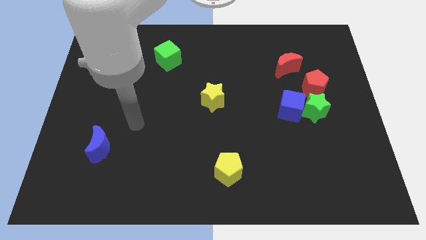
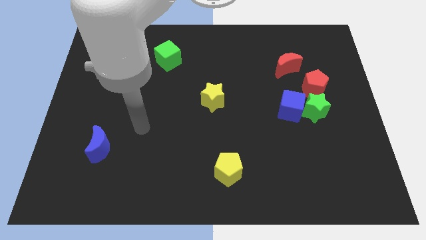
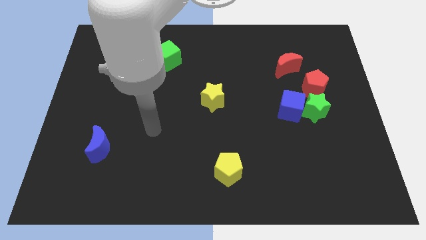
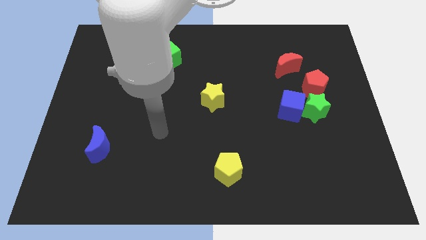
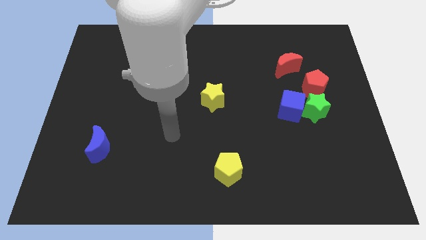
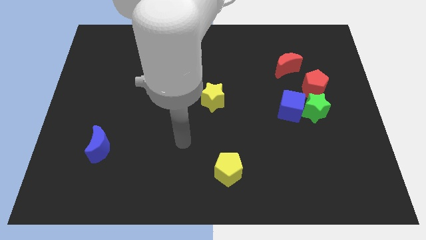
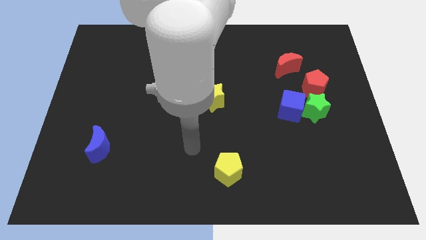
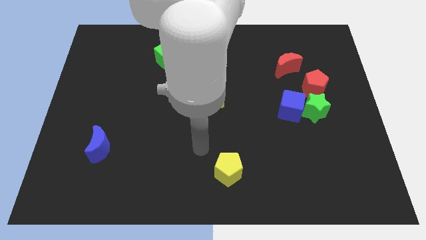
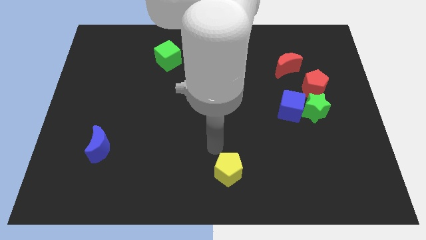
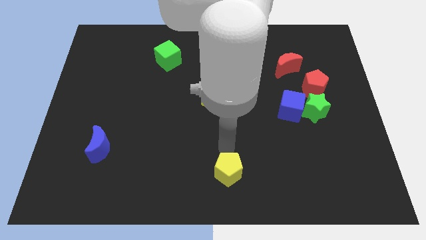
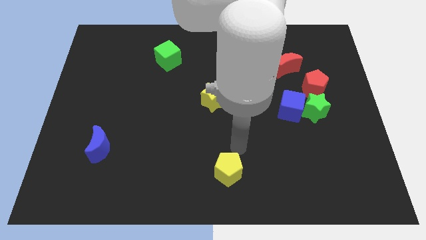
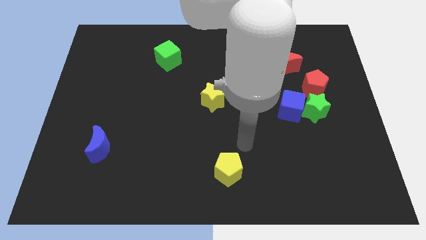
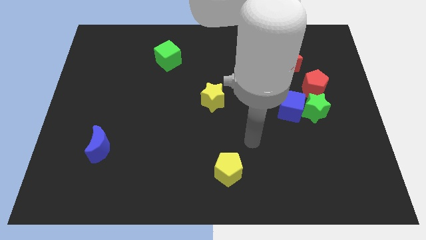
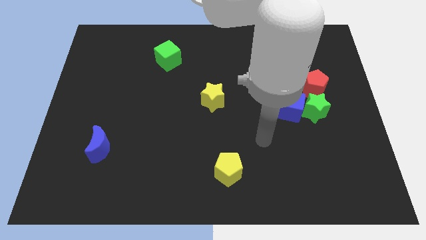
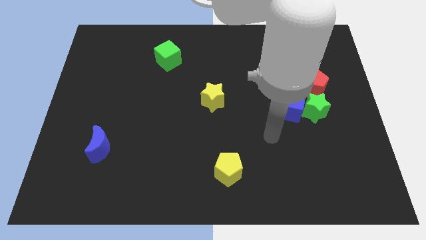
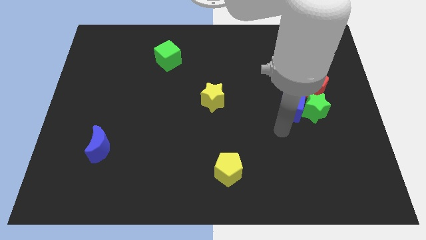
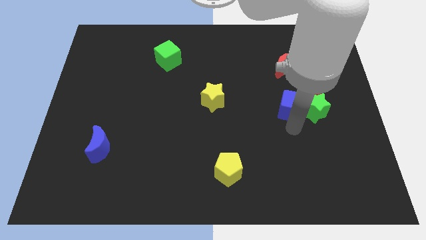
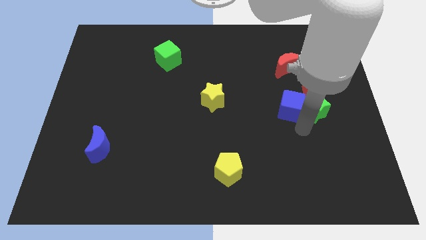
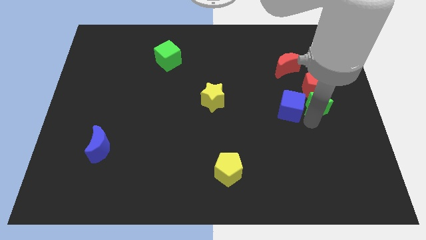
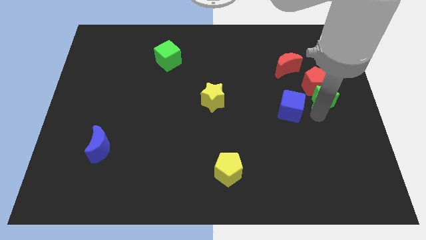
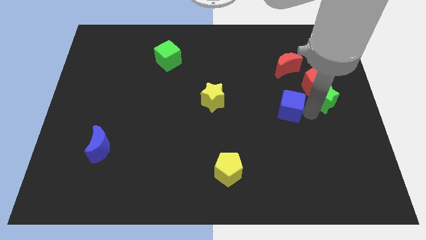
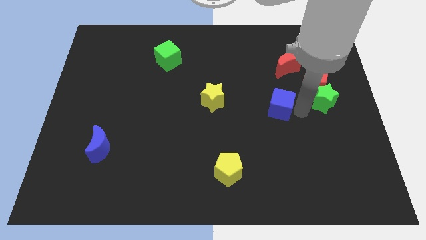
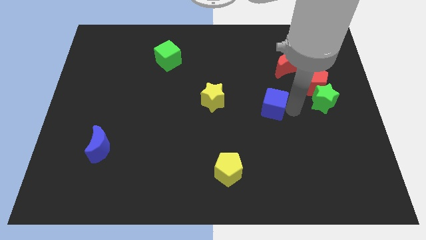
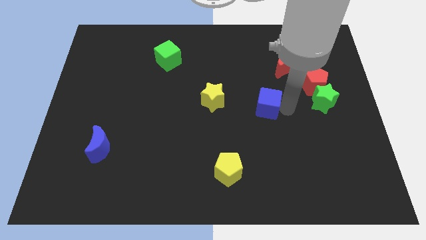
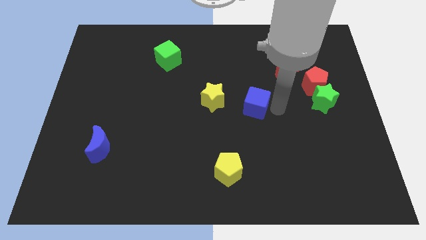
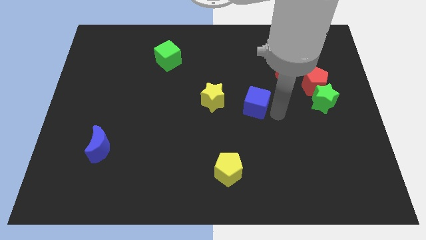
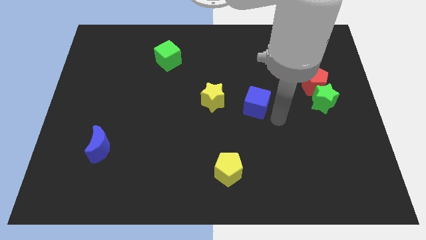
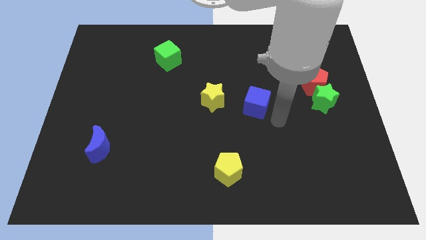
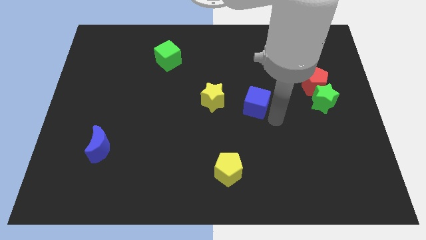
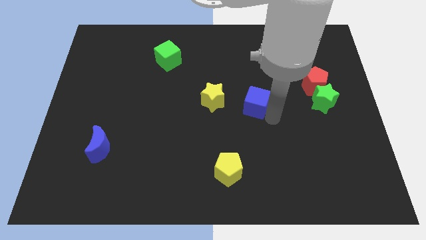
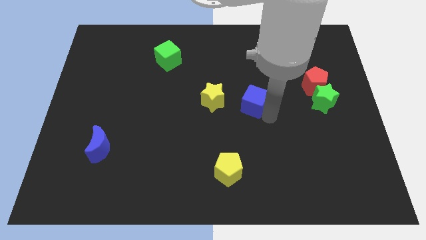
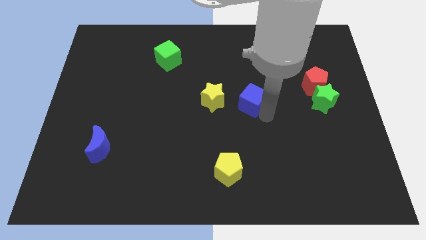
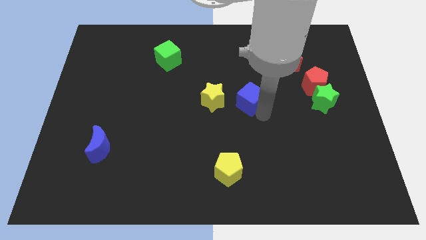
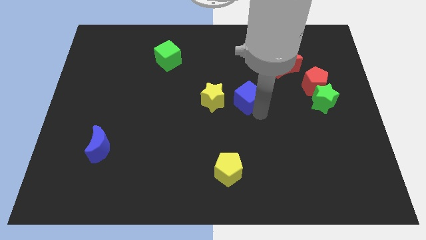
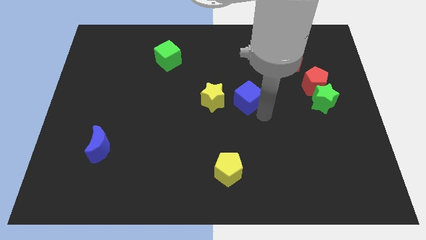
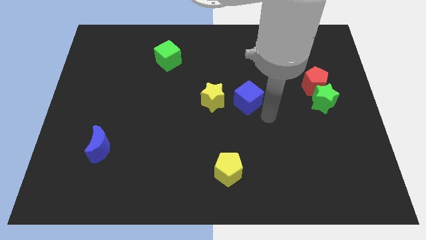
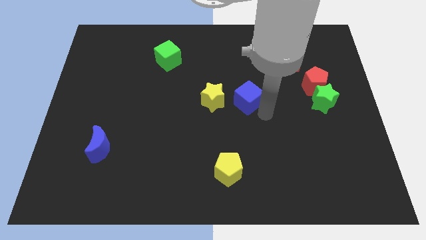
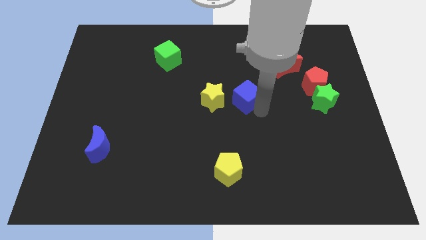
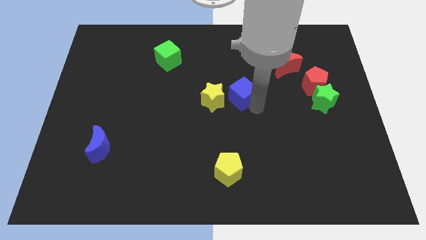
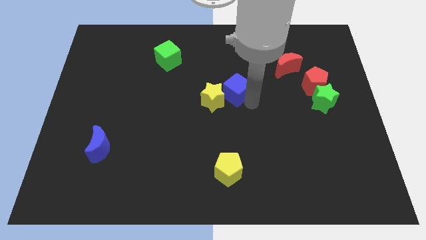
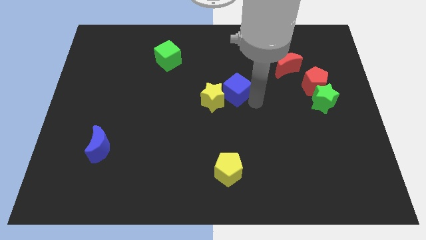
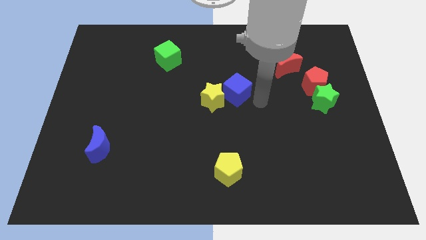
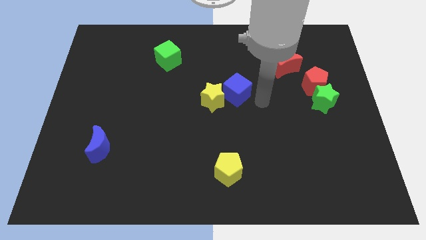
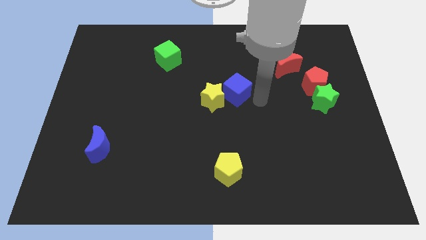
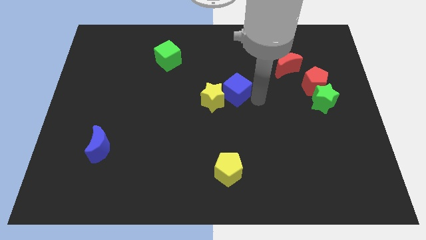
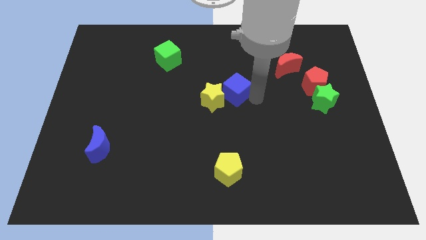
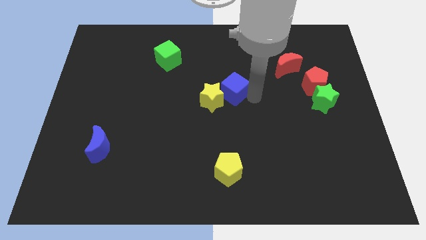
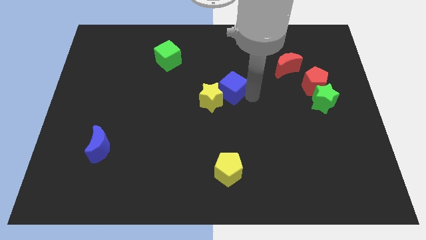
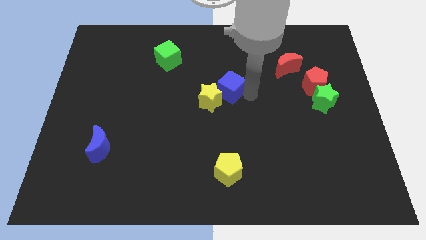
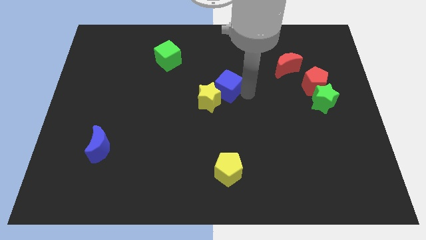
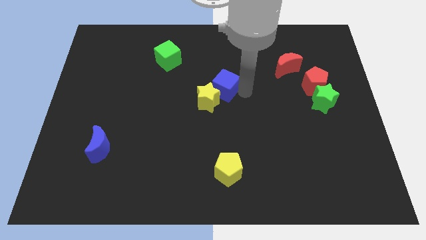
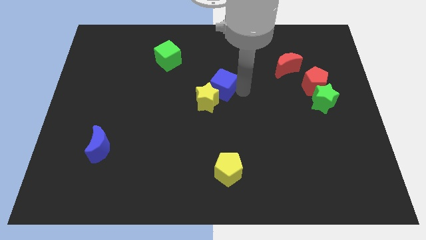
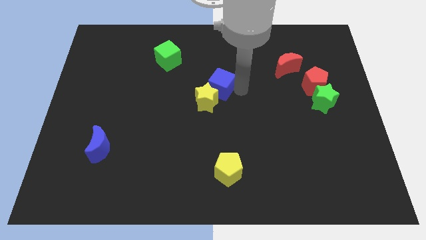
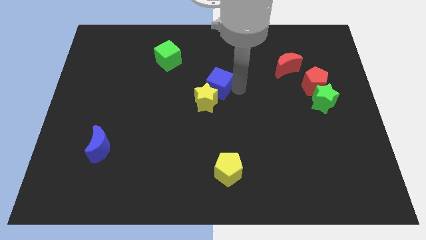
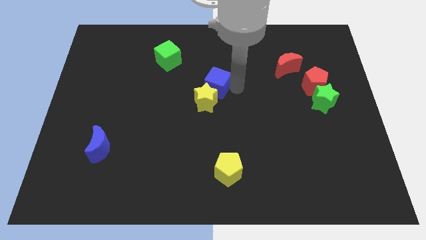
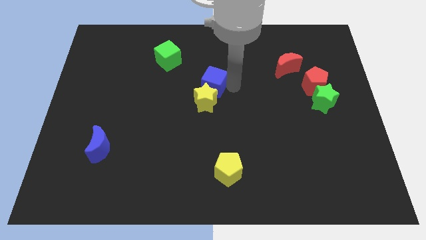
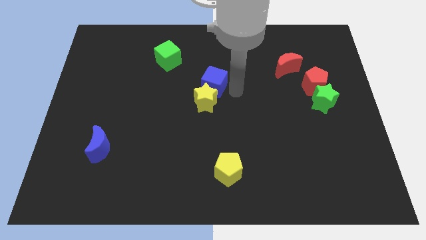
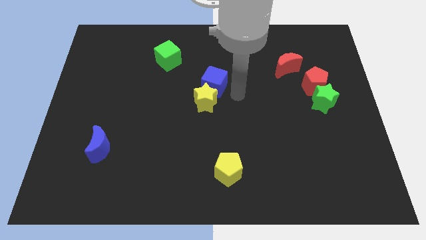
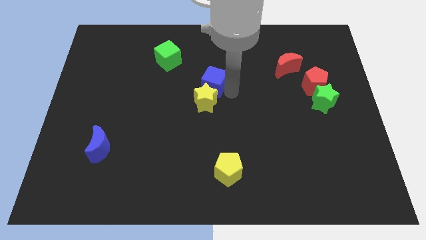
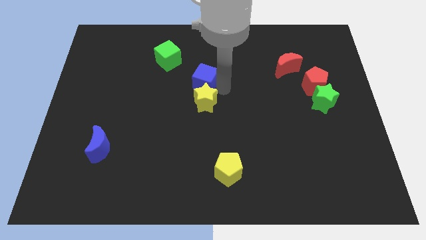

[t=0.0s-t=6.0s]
push the blue cube to the bottom right side of the green cube

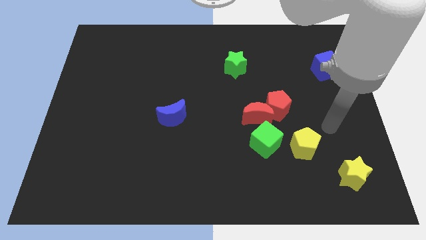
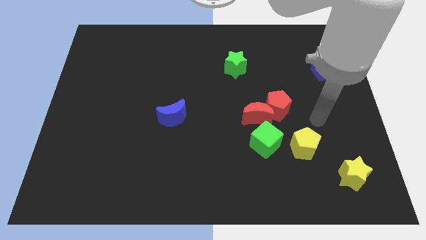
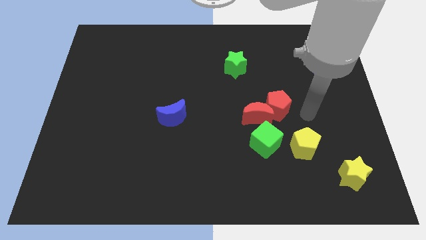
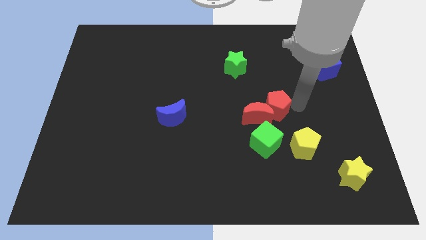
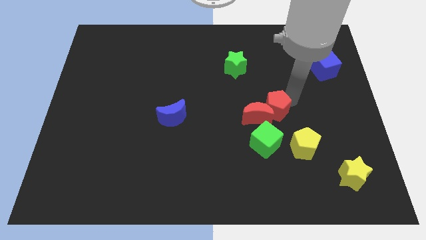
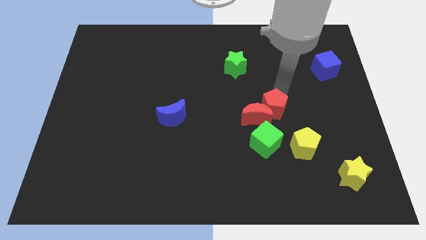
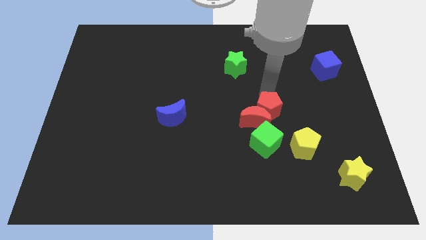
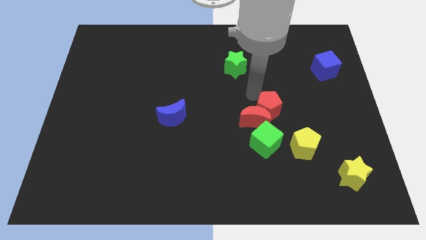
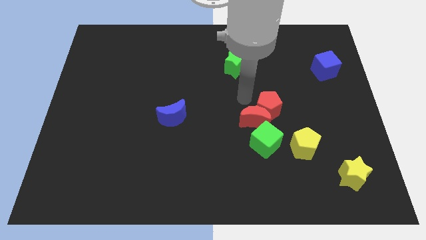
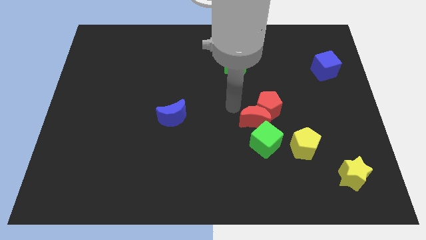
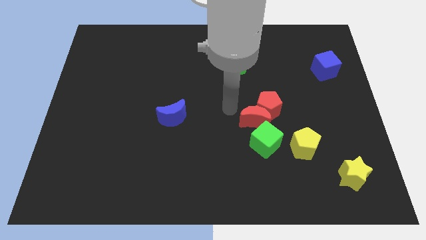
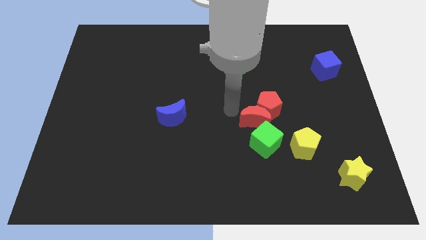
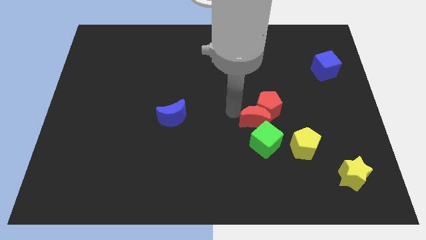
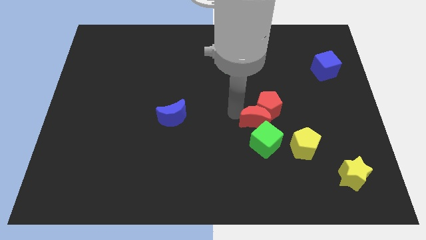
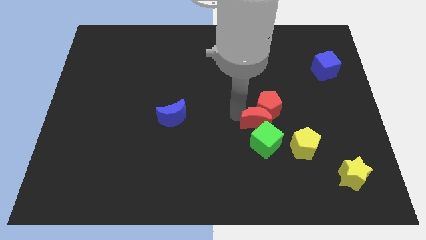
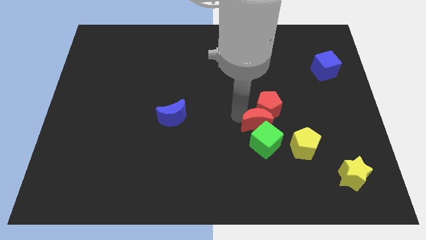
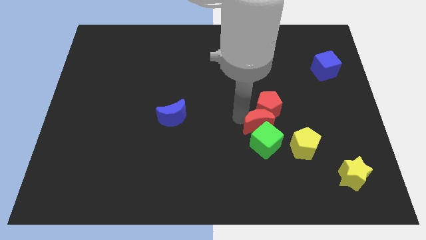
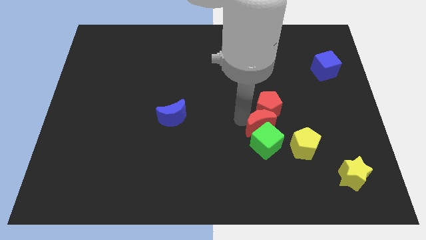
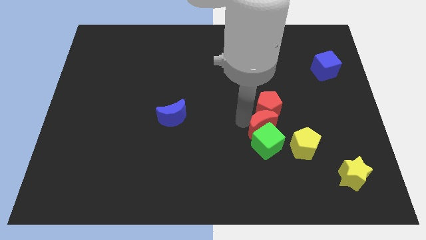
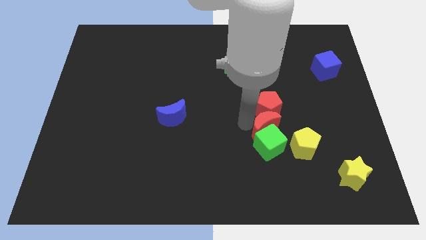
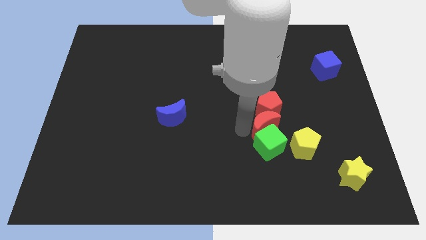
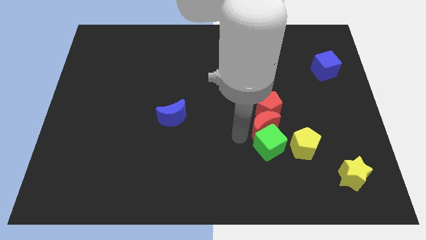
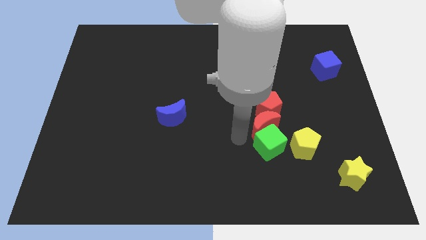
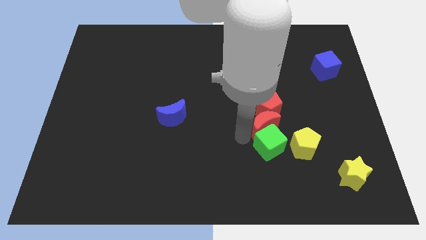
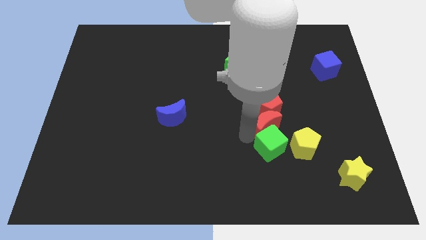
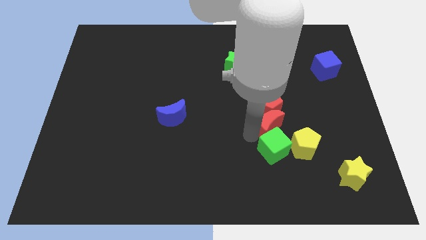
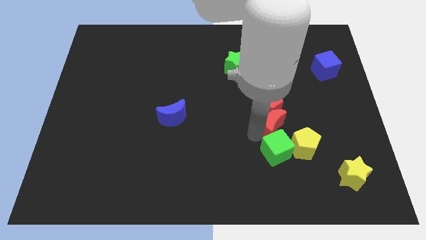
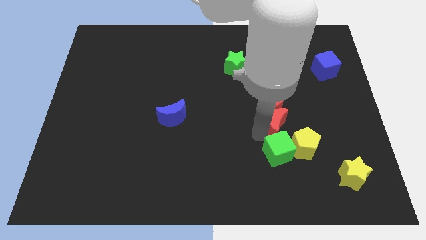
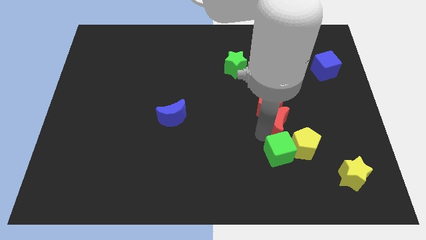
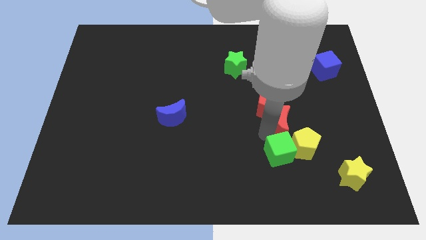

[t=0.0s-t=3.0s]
push the red moon to the top of the yellow pentagon
